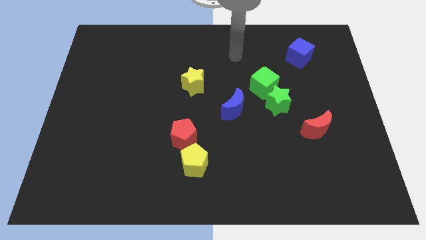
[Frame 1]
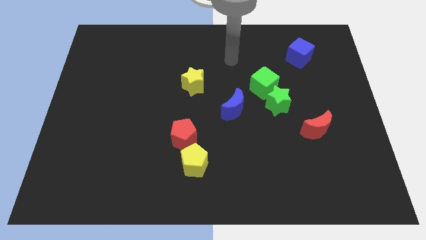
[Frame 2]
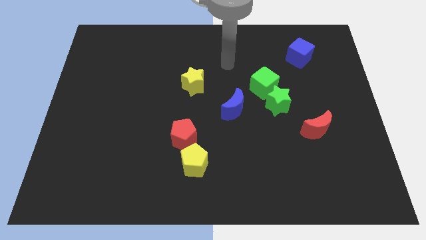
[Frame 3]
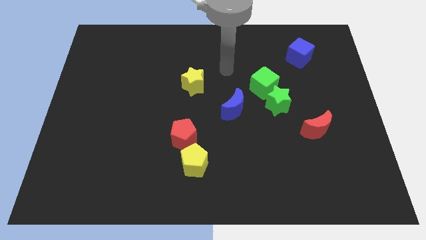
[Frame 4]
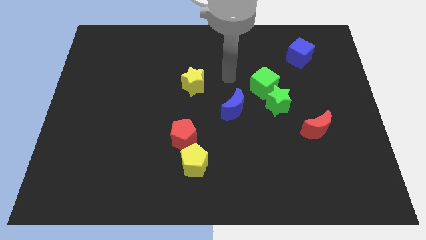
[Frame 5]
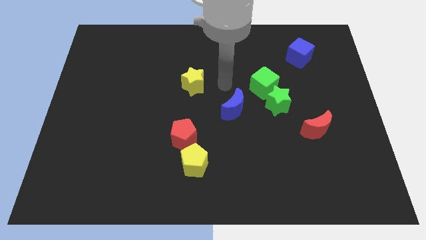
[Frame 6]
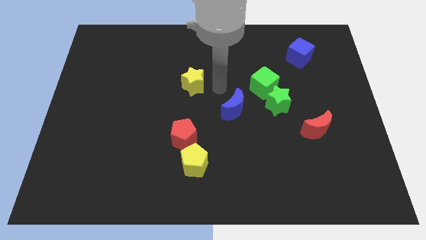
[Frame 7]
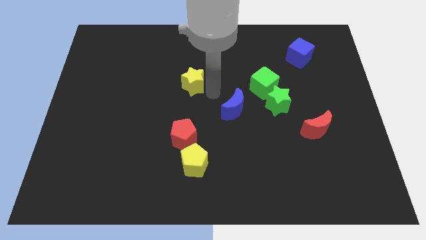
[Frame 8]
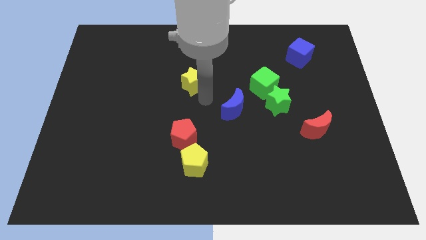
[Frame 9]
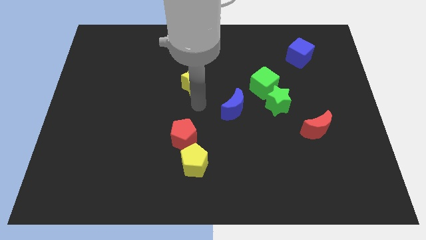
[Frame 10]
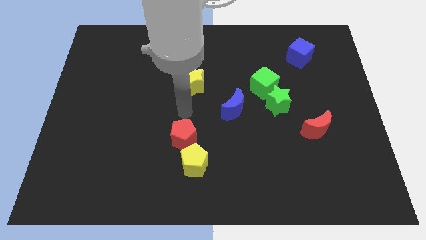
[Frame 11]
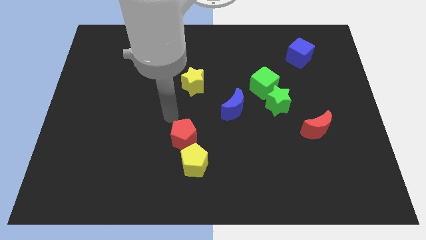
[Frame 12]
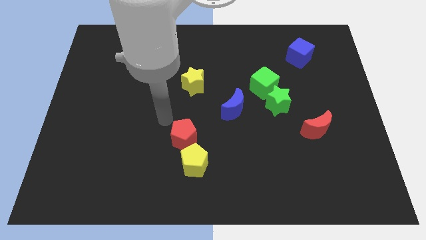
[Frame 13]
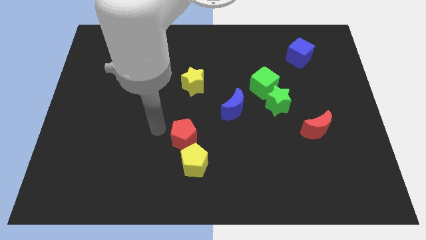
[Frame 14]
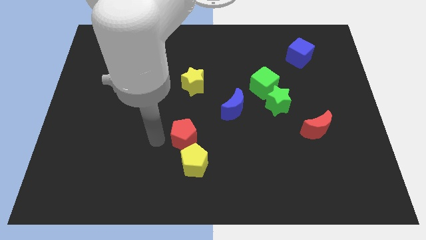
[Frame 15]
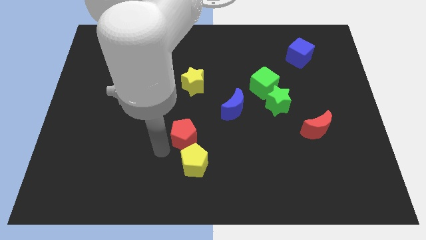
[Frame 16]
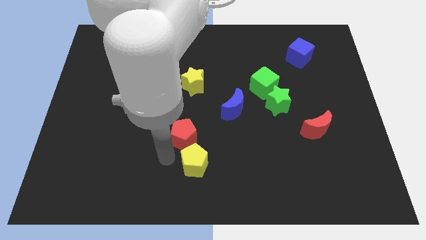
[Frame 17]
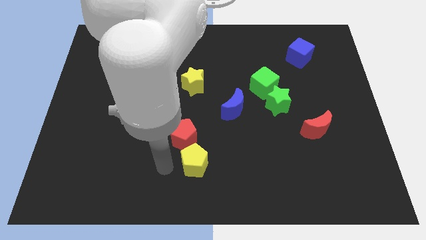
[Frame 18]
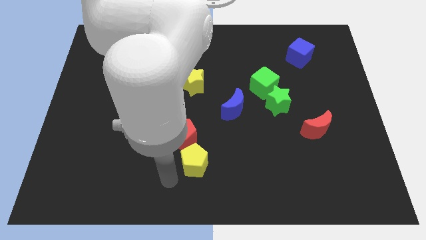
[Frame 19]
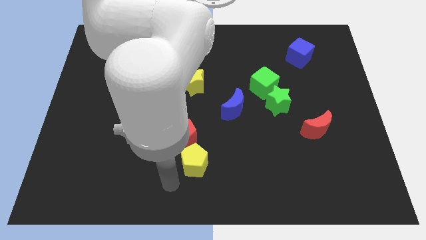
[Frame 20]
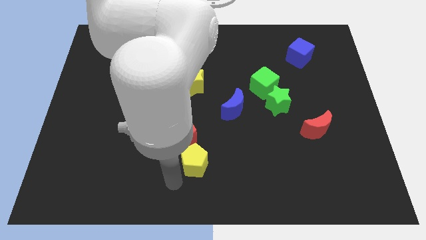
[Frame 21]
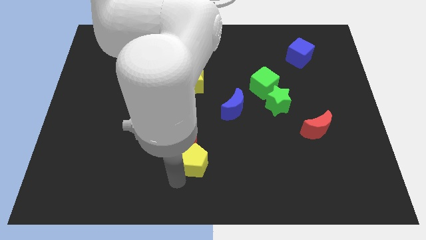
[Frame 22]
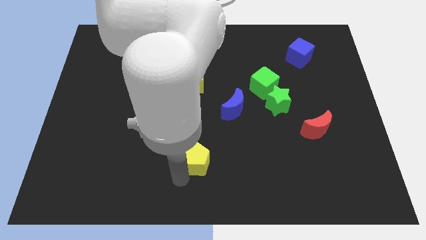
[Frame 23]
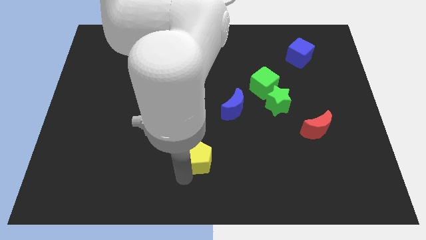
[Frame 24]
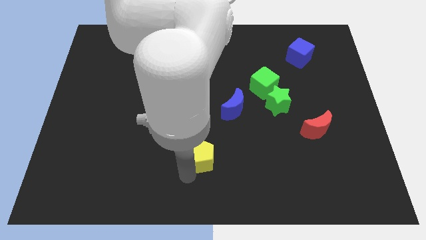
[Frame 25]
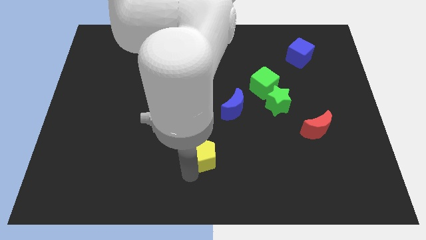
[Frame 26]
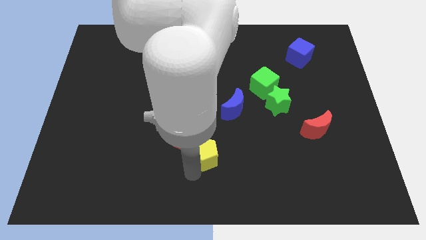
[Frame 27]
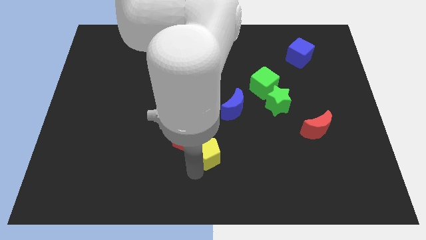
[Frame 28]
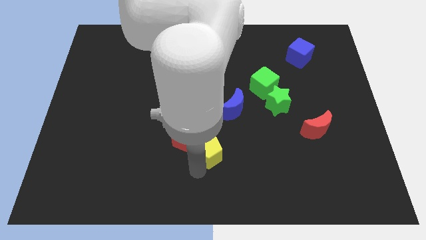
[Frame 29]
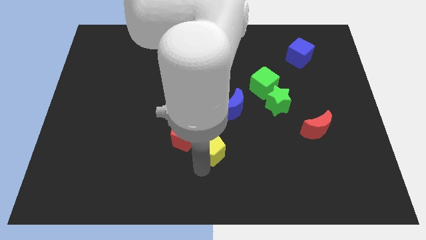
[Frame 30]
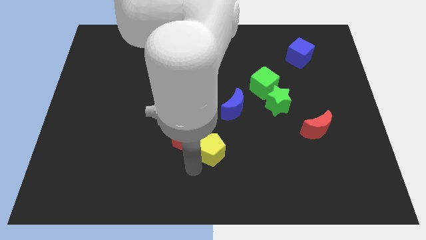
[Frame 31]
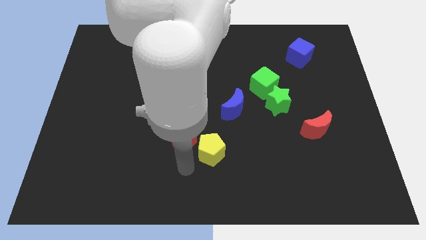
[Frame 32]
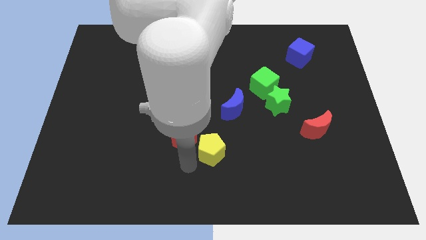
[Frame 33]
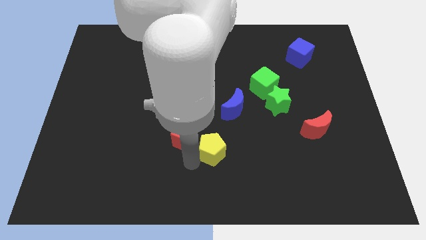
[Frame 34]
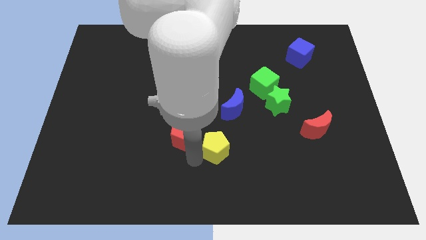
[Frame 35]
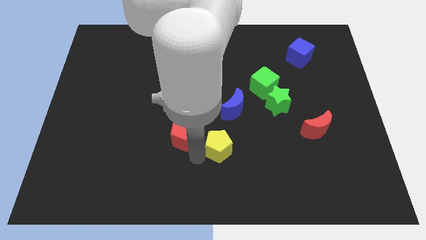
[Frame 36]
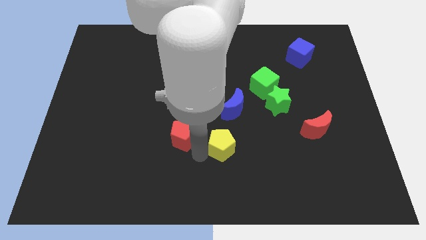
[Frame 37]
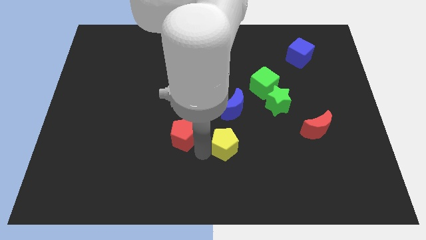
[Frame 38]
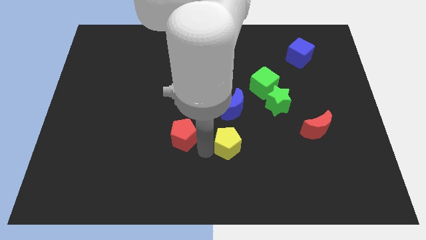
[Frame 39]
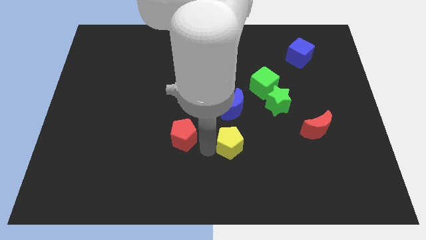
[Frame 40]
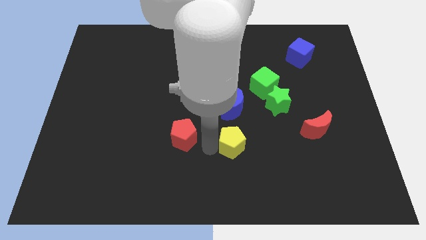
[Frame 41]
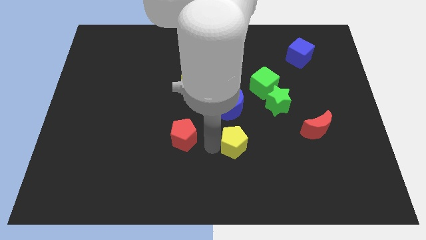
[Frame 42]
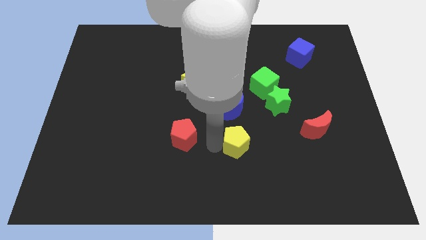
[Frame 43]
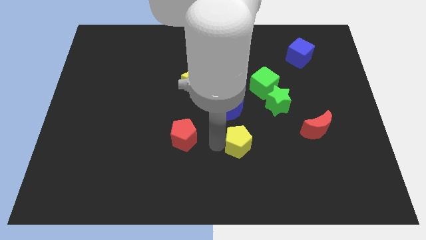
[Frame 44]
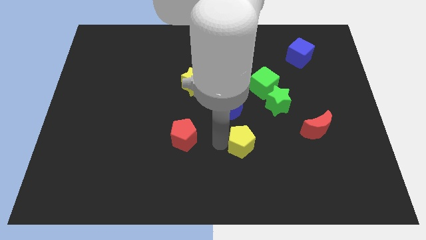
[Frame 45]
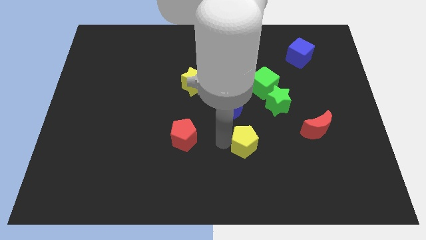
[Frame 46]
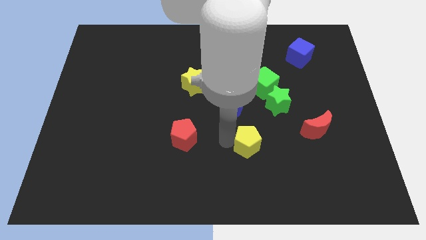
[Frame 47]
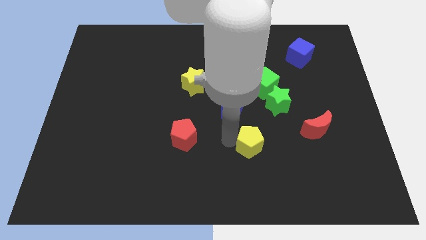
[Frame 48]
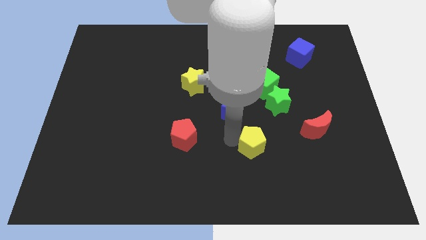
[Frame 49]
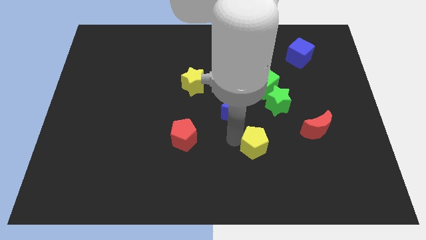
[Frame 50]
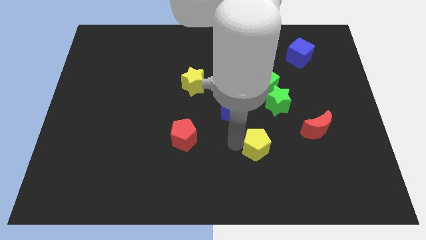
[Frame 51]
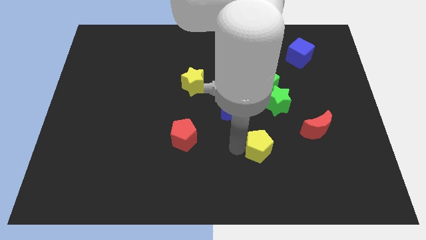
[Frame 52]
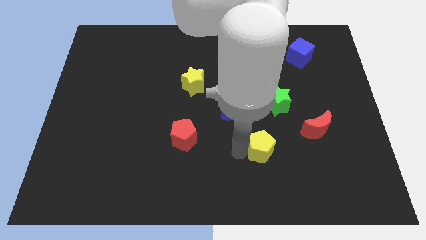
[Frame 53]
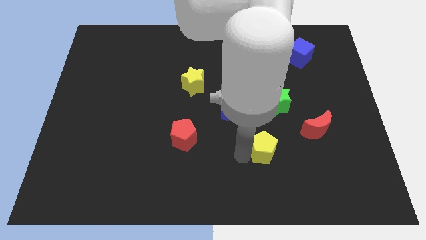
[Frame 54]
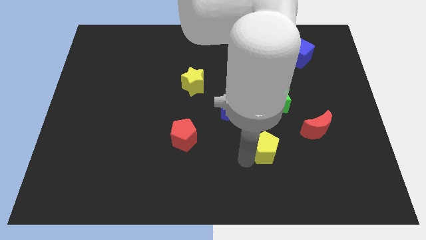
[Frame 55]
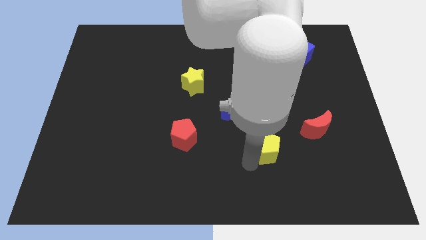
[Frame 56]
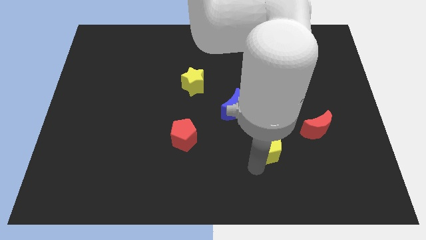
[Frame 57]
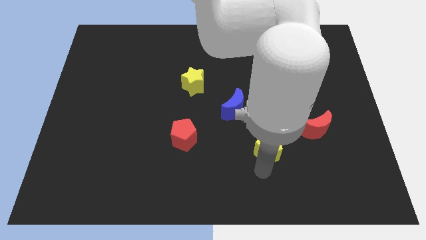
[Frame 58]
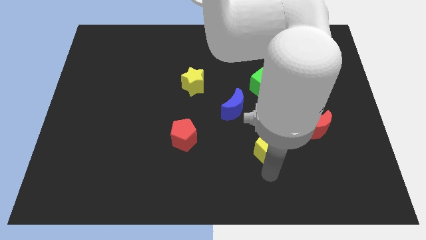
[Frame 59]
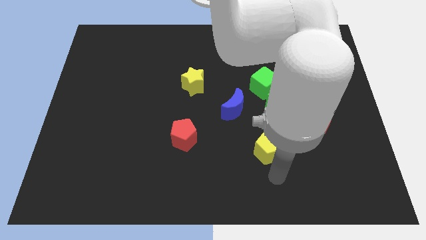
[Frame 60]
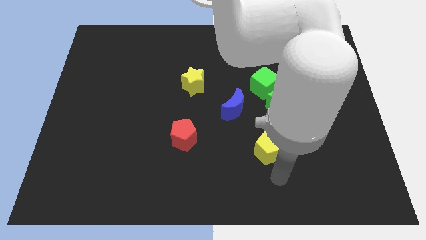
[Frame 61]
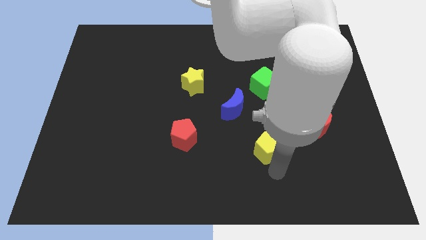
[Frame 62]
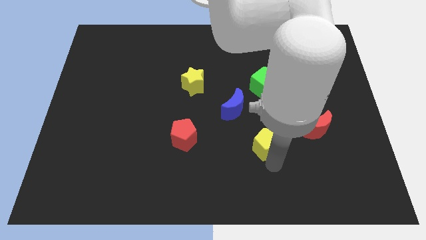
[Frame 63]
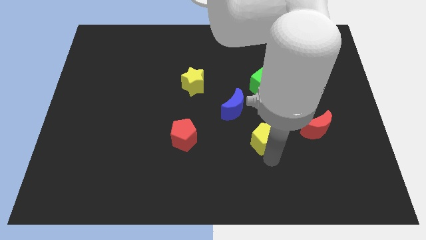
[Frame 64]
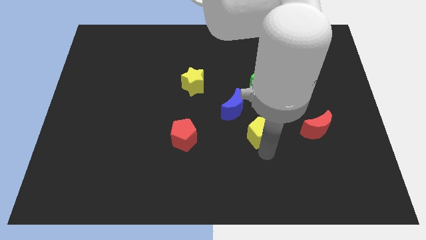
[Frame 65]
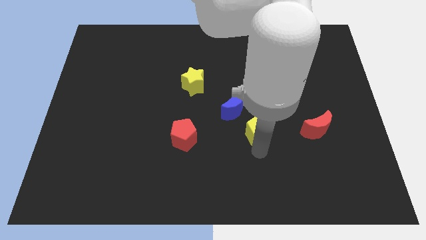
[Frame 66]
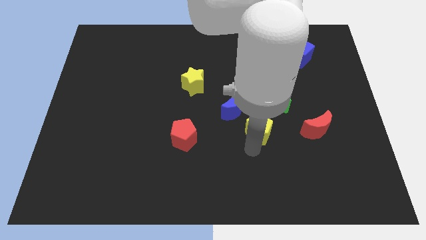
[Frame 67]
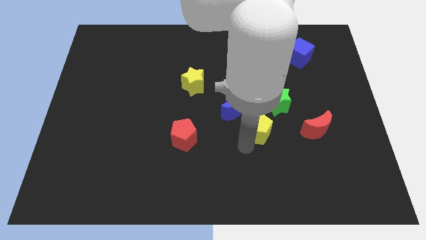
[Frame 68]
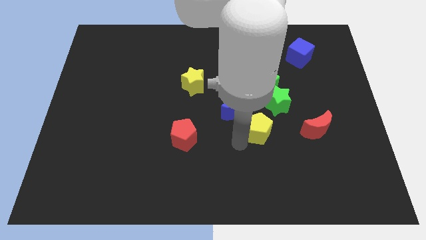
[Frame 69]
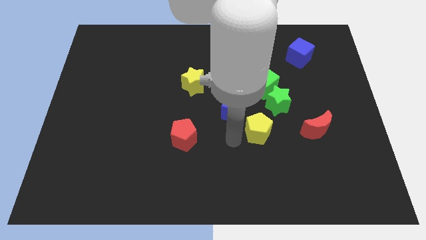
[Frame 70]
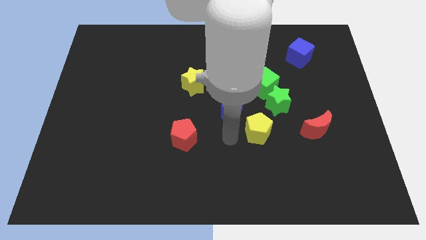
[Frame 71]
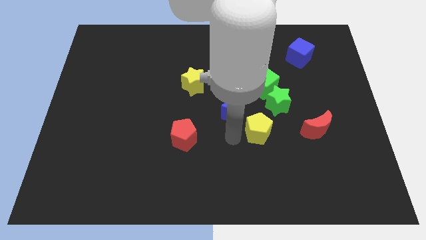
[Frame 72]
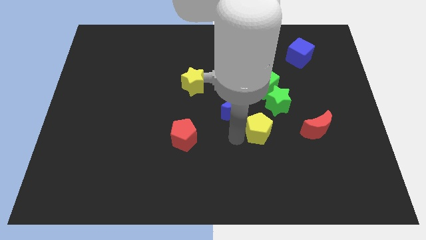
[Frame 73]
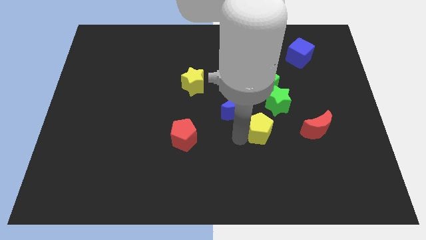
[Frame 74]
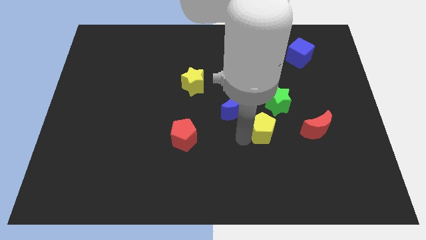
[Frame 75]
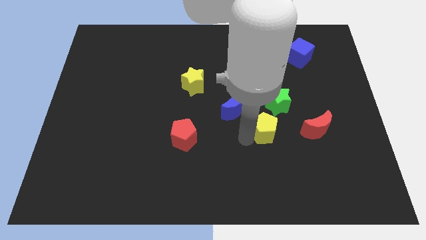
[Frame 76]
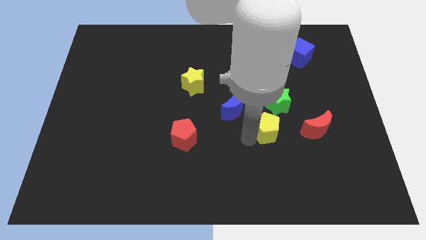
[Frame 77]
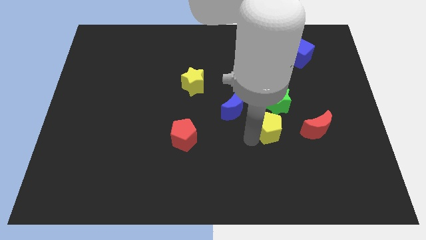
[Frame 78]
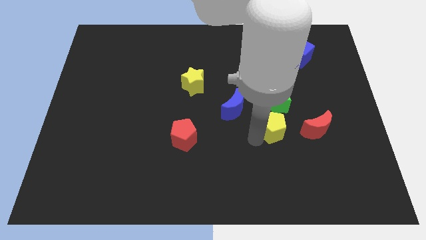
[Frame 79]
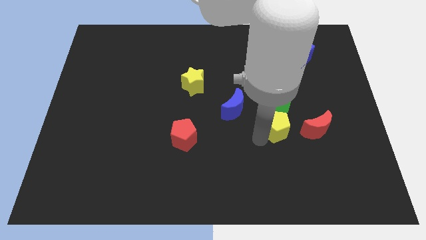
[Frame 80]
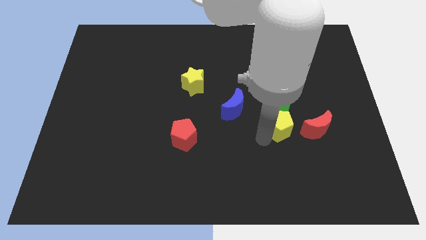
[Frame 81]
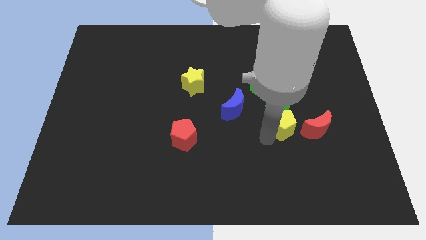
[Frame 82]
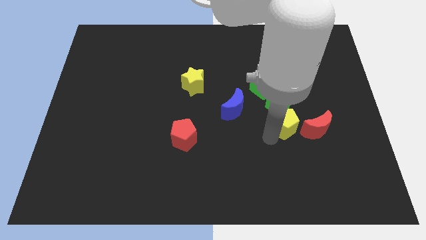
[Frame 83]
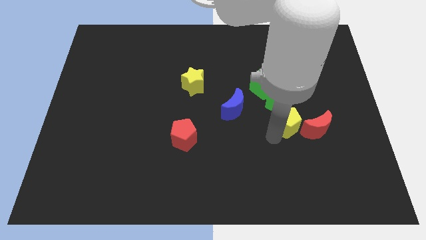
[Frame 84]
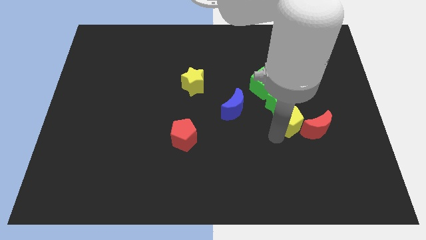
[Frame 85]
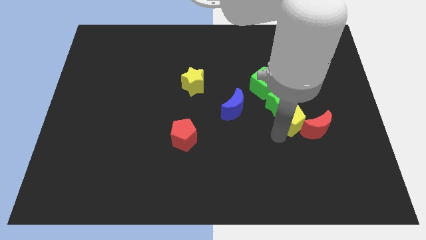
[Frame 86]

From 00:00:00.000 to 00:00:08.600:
slide the yellow pentagon upwards and to the right diagonally
